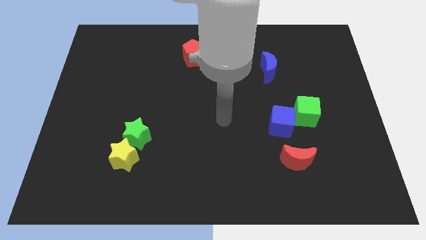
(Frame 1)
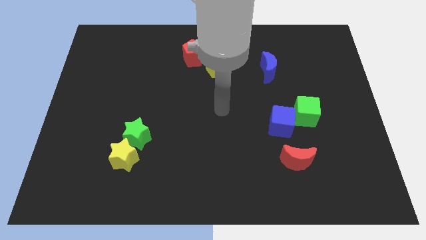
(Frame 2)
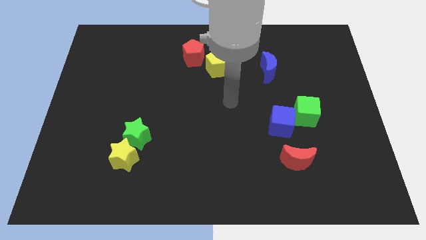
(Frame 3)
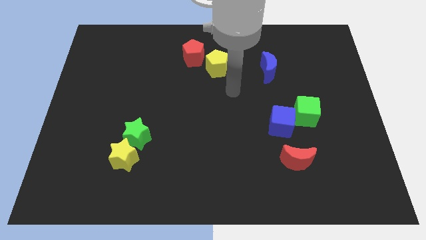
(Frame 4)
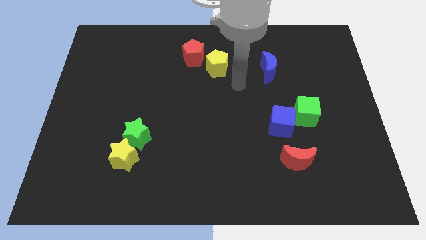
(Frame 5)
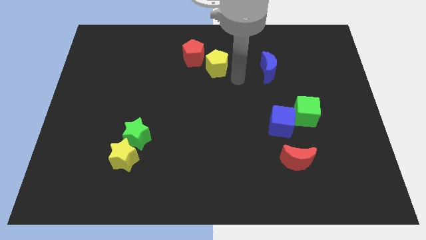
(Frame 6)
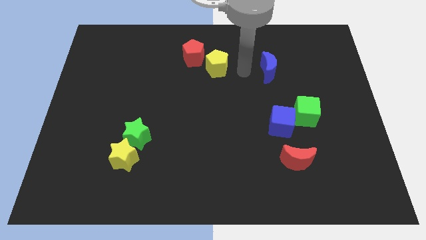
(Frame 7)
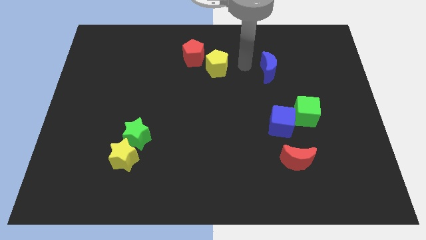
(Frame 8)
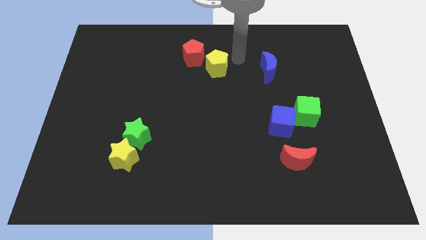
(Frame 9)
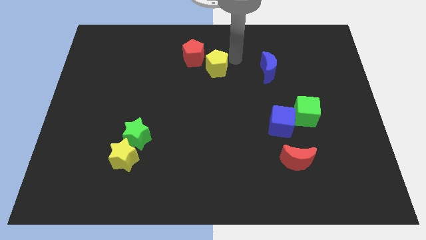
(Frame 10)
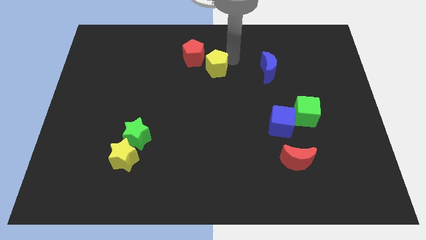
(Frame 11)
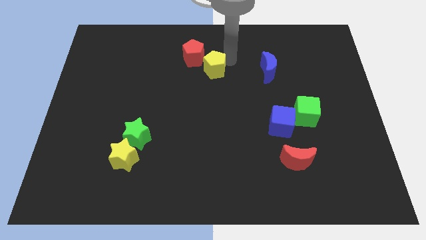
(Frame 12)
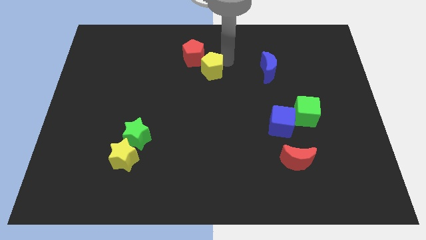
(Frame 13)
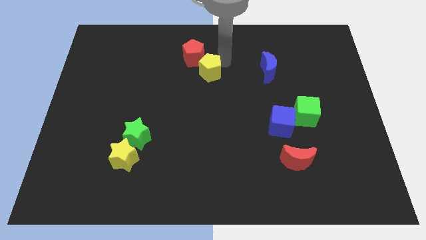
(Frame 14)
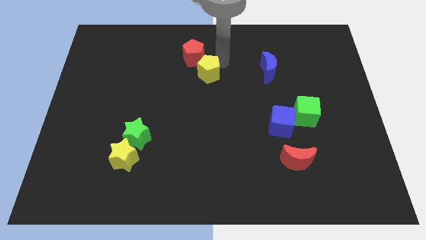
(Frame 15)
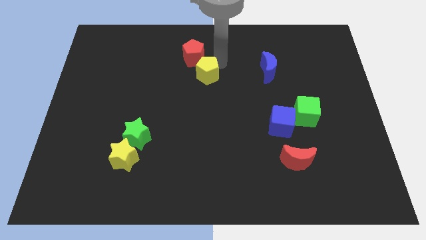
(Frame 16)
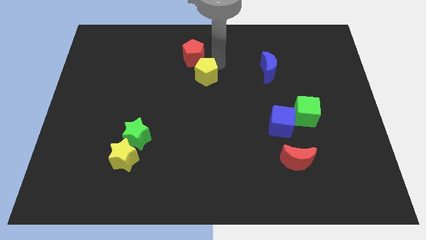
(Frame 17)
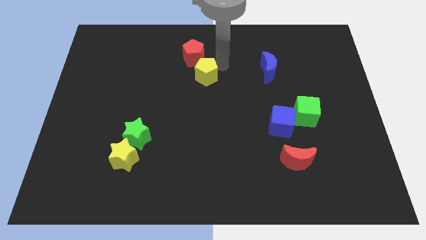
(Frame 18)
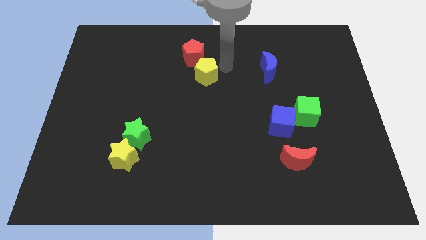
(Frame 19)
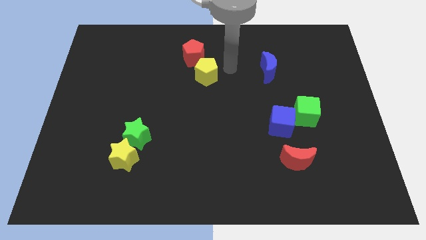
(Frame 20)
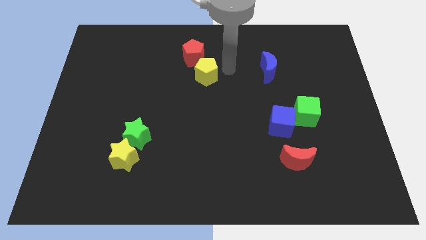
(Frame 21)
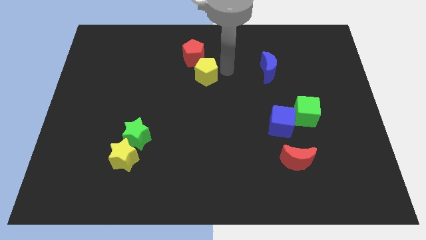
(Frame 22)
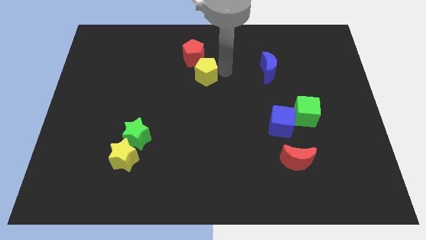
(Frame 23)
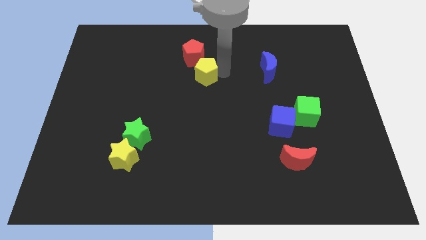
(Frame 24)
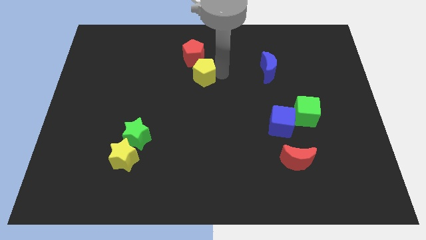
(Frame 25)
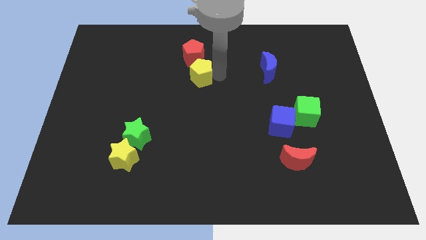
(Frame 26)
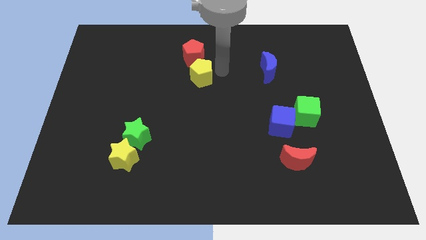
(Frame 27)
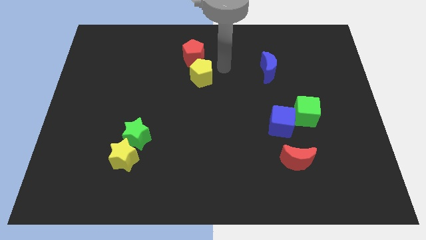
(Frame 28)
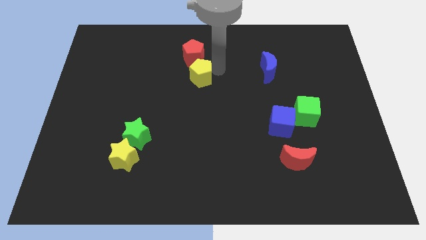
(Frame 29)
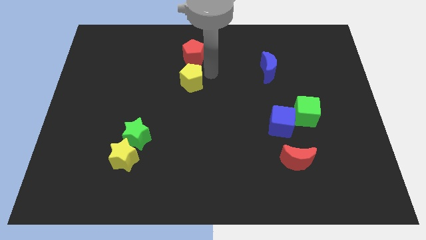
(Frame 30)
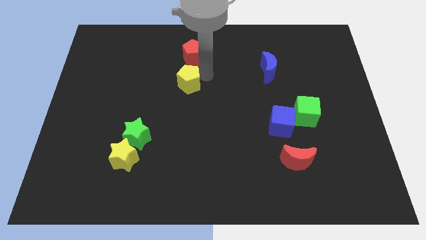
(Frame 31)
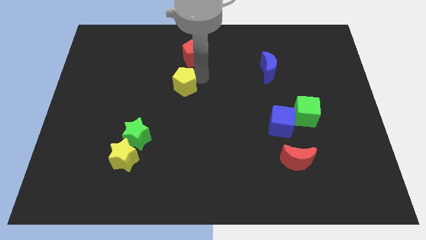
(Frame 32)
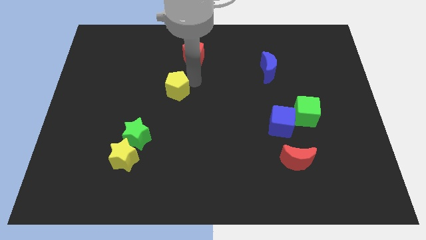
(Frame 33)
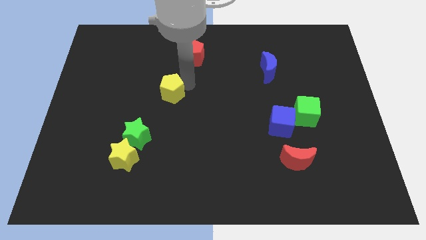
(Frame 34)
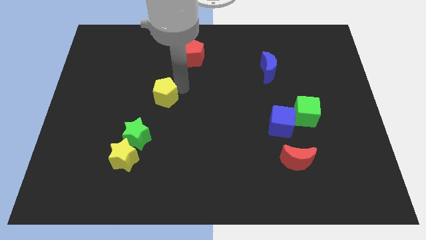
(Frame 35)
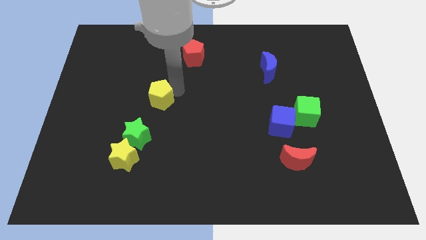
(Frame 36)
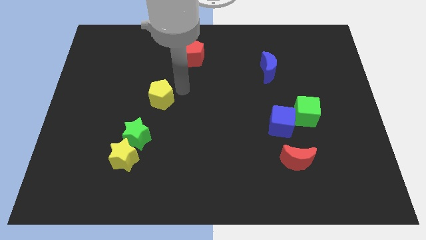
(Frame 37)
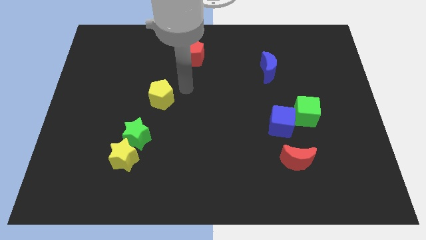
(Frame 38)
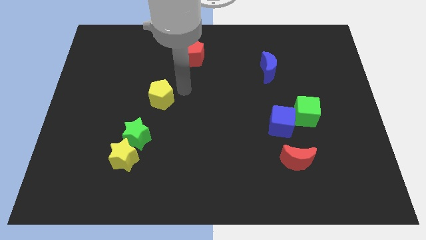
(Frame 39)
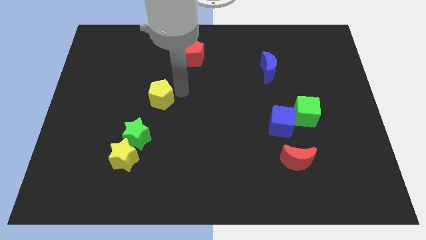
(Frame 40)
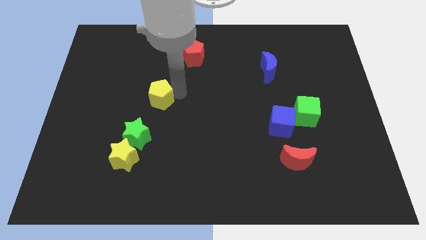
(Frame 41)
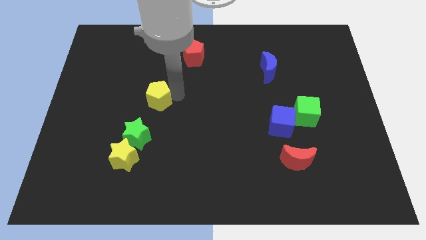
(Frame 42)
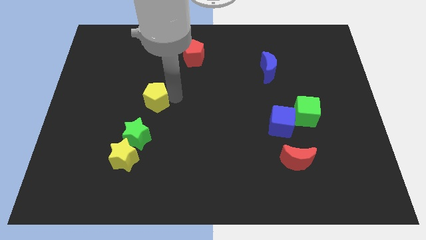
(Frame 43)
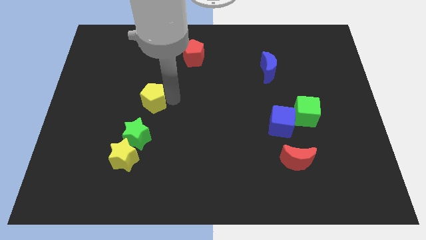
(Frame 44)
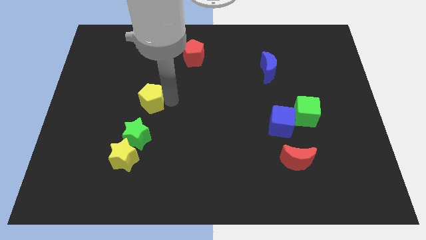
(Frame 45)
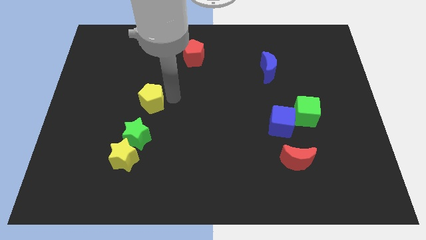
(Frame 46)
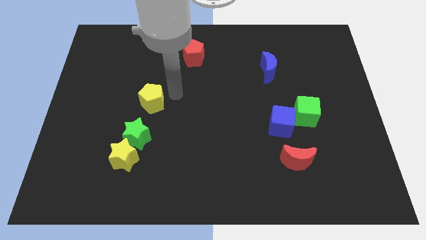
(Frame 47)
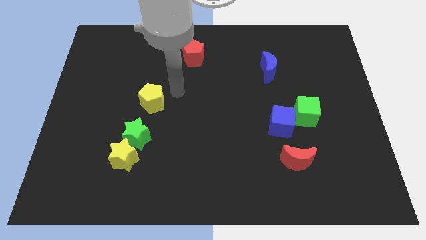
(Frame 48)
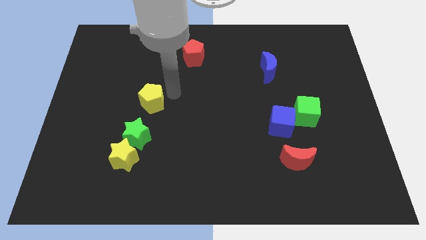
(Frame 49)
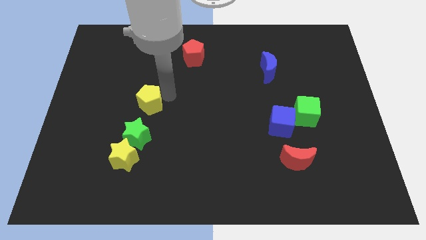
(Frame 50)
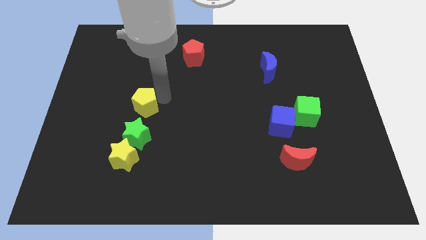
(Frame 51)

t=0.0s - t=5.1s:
push the yellow pentagon downwards and to the left

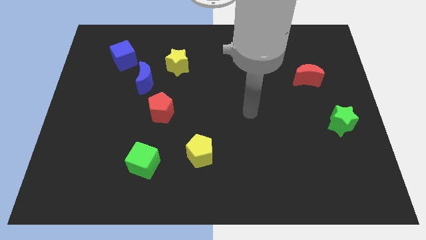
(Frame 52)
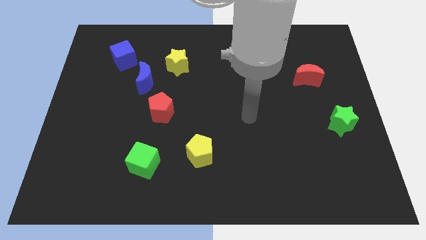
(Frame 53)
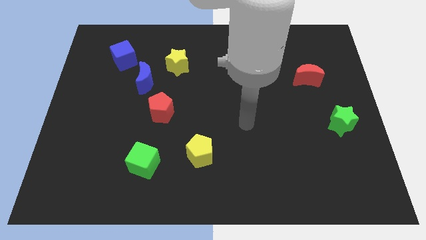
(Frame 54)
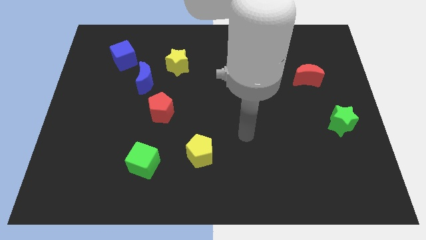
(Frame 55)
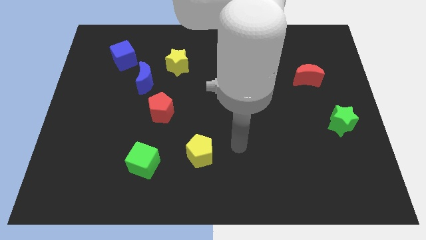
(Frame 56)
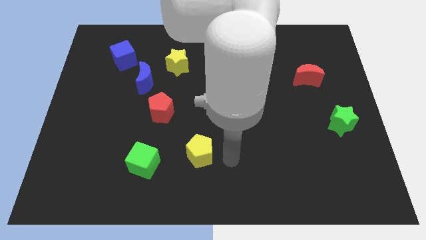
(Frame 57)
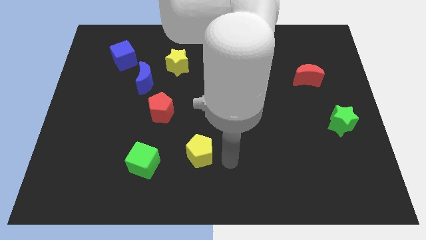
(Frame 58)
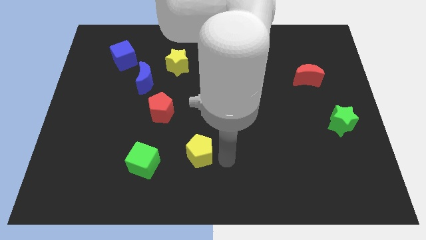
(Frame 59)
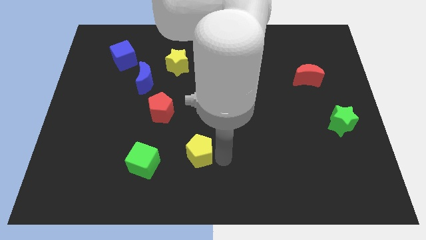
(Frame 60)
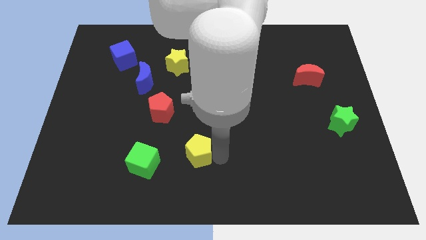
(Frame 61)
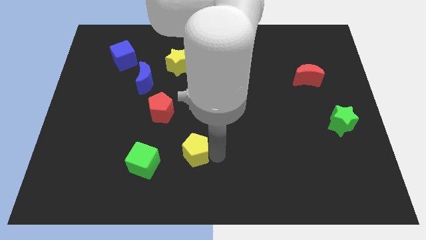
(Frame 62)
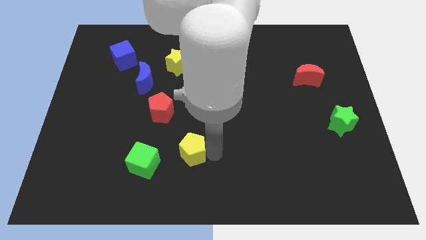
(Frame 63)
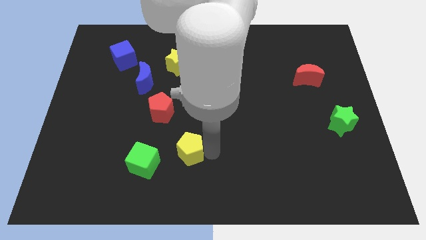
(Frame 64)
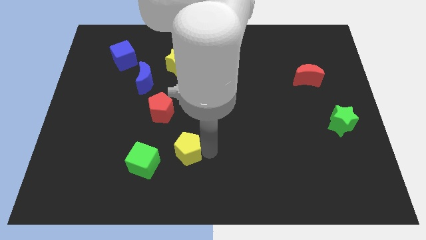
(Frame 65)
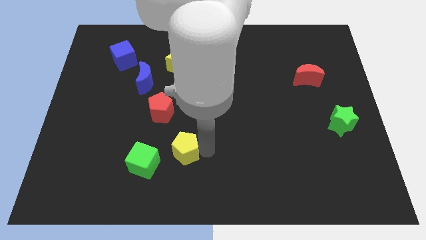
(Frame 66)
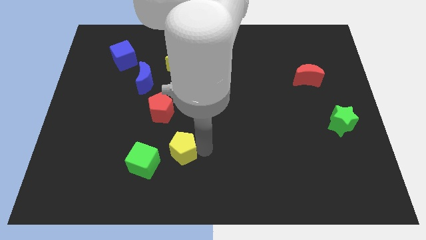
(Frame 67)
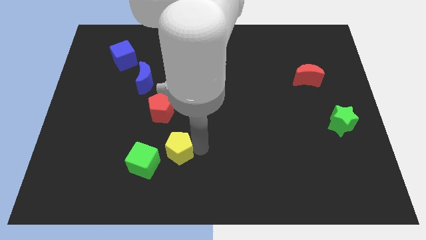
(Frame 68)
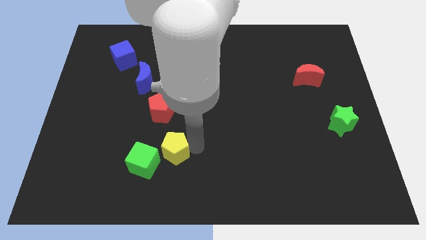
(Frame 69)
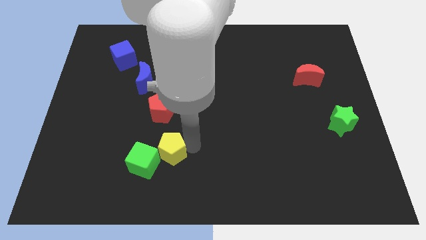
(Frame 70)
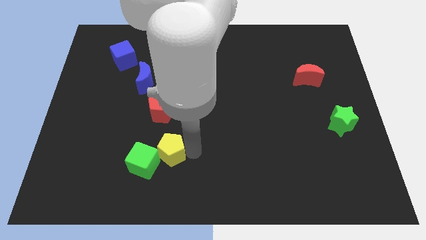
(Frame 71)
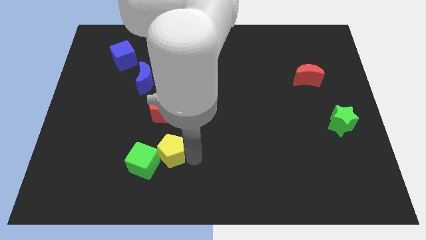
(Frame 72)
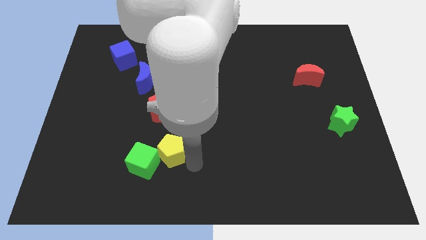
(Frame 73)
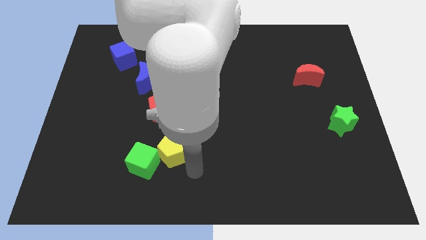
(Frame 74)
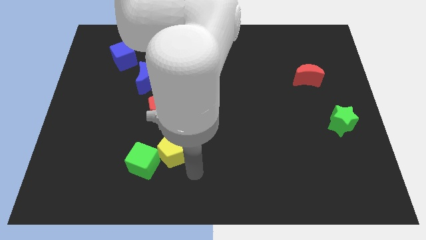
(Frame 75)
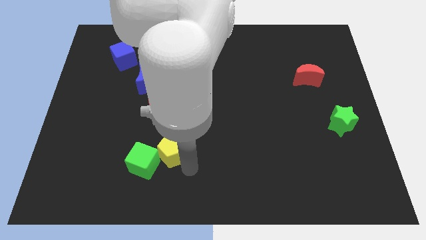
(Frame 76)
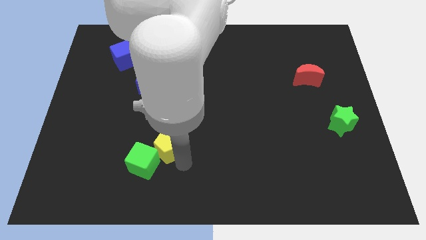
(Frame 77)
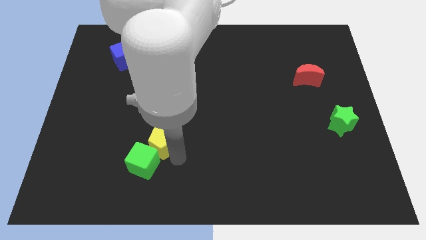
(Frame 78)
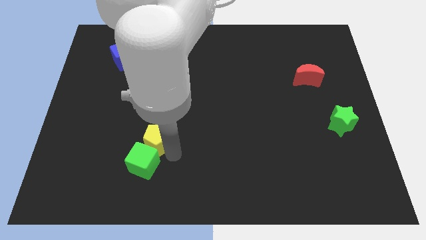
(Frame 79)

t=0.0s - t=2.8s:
move the yellow pentagon a little bit diagonally upwards and left
